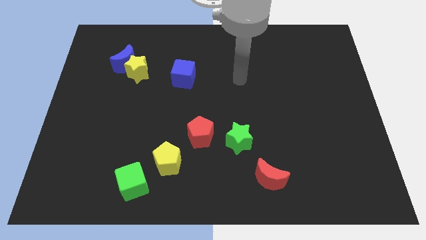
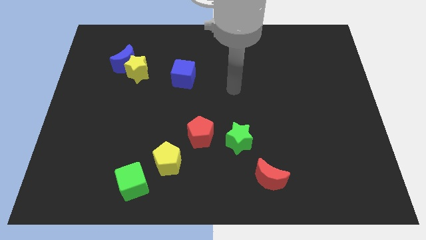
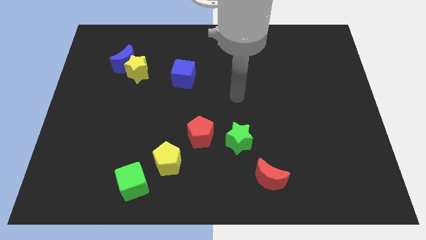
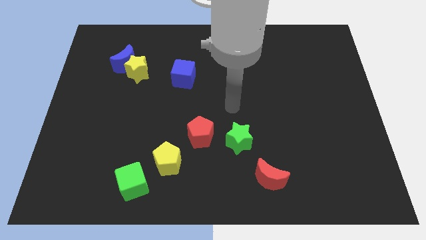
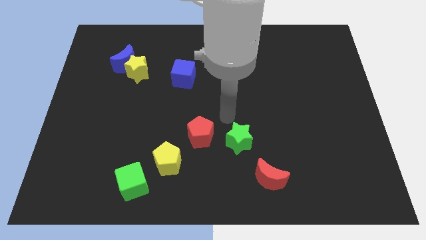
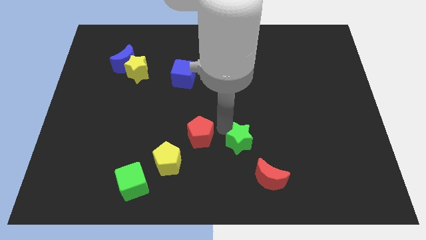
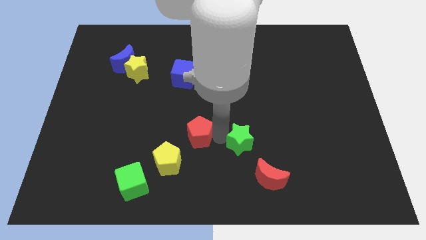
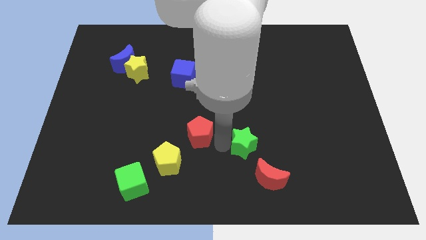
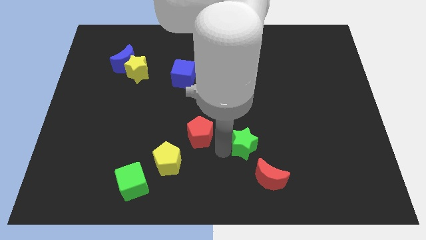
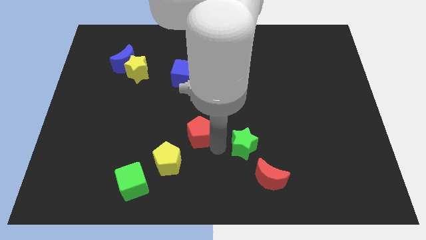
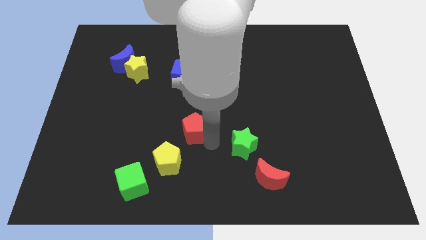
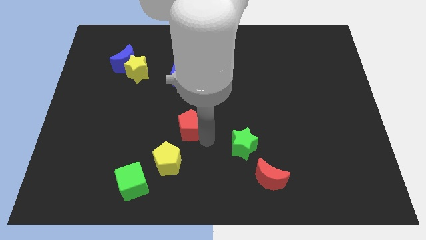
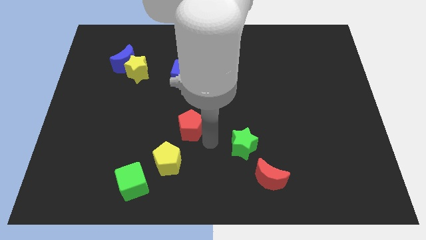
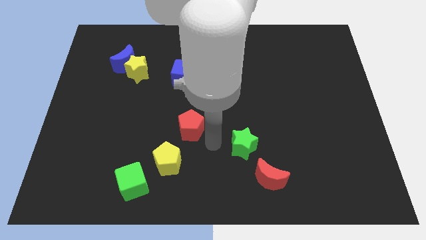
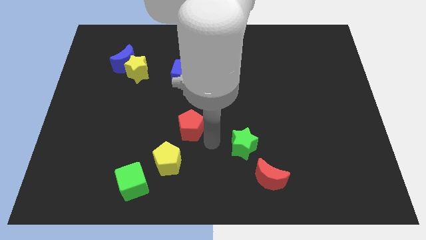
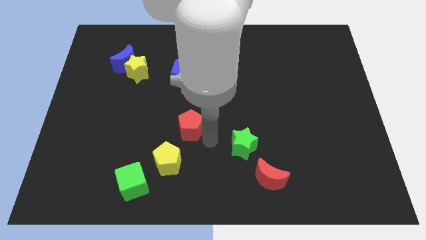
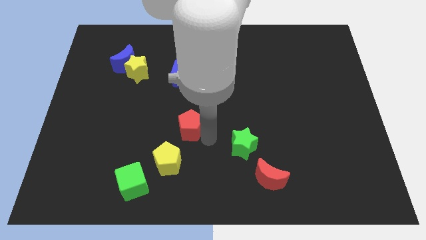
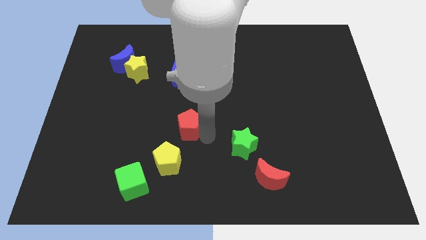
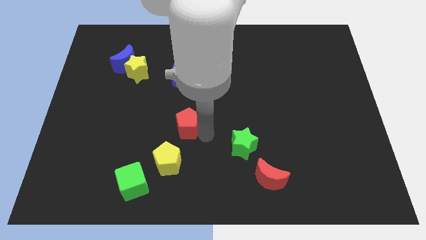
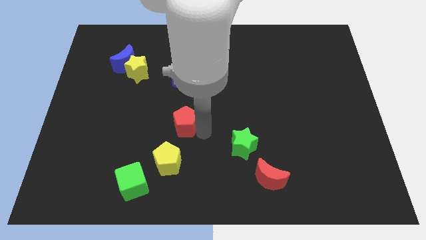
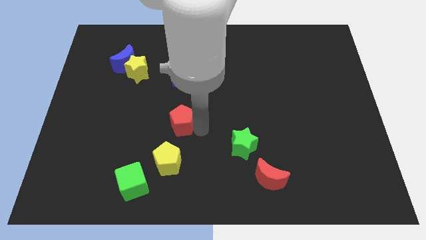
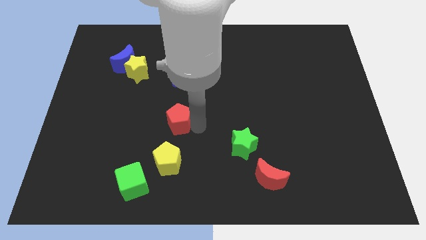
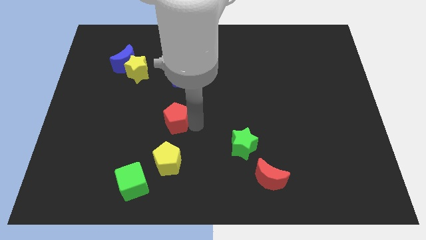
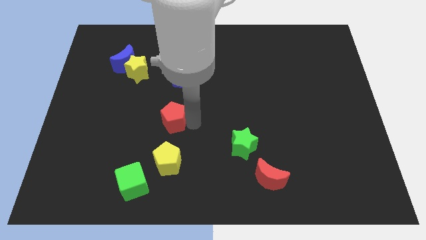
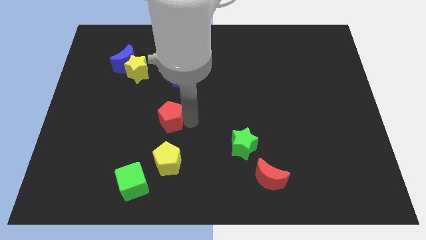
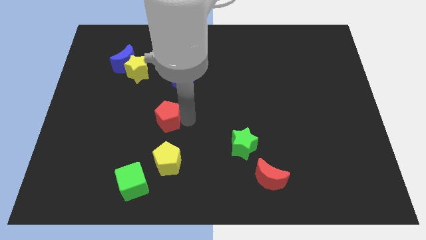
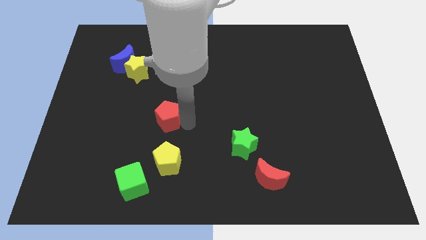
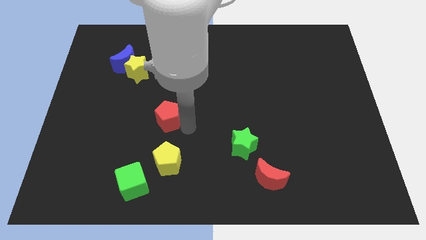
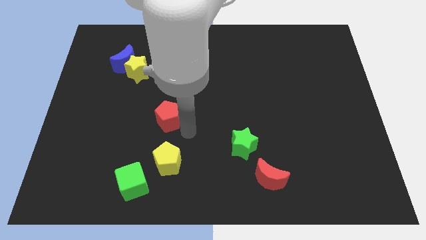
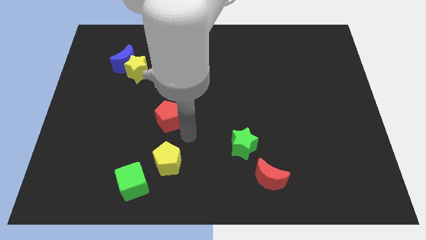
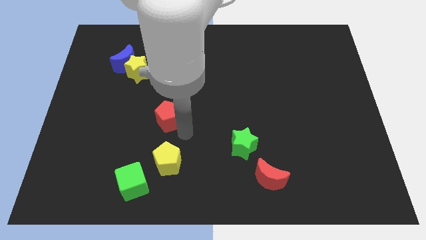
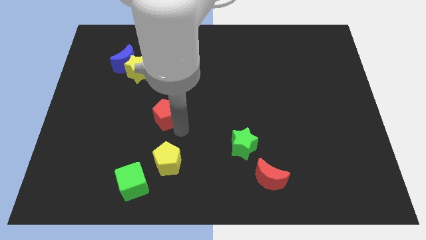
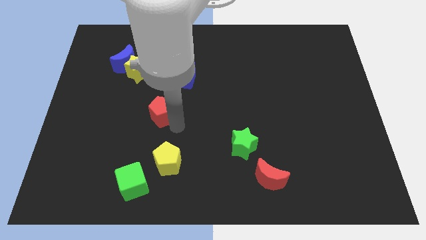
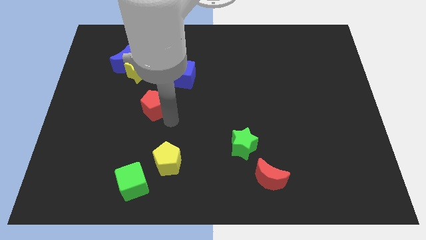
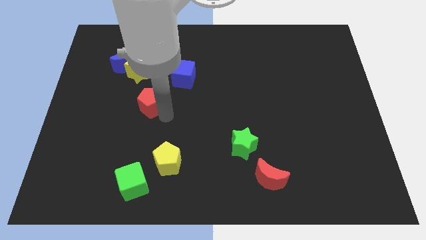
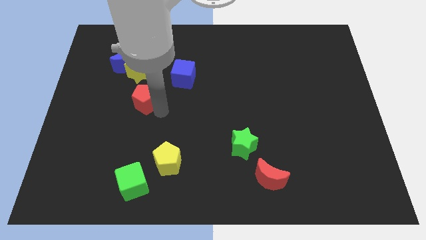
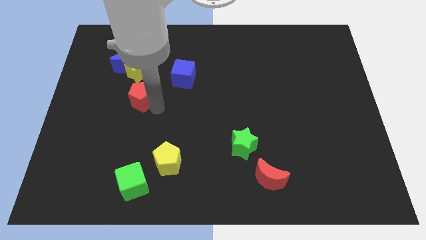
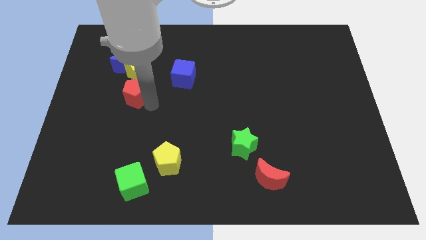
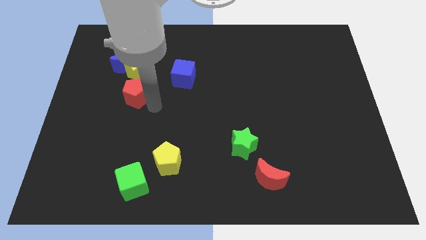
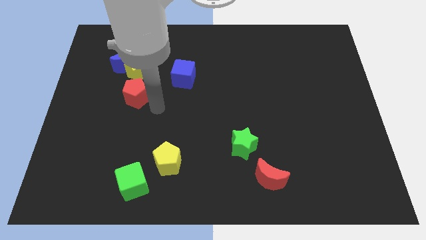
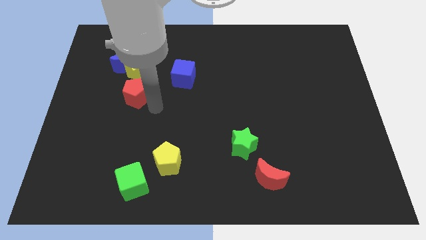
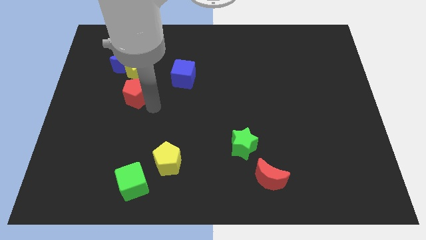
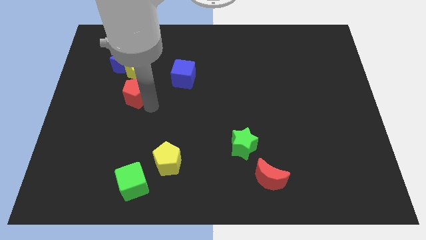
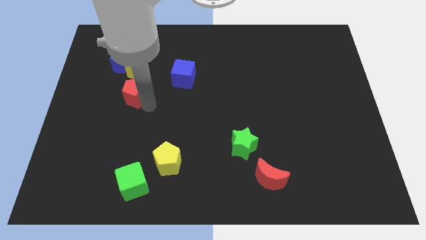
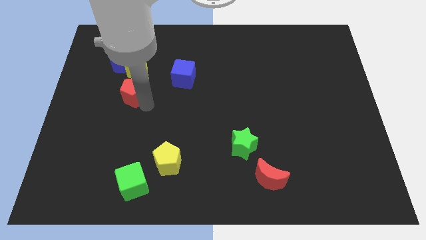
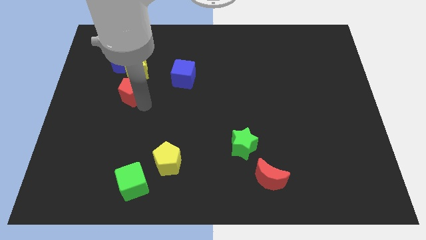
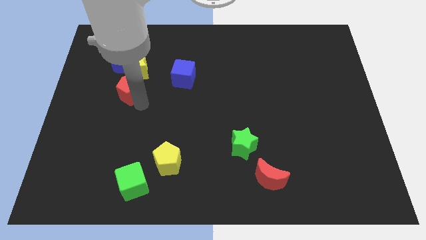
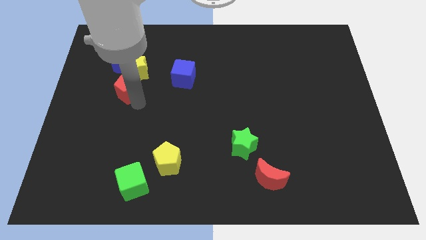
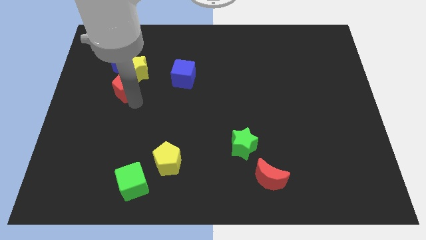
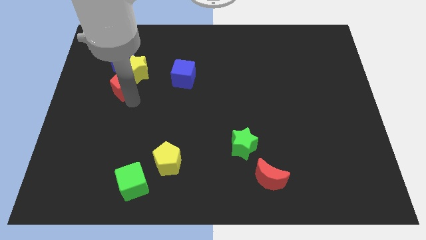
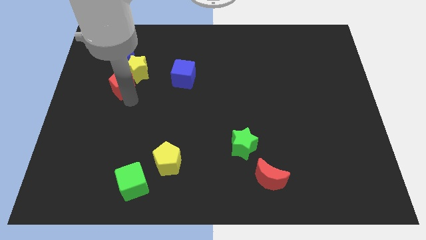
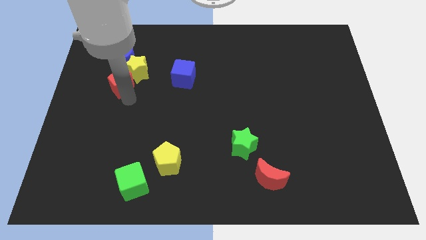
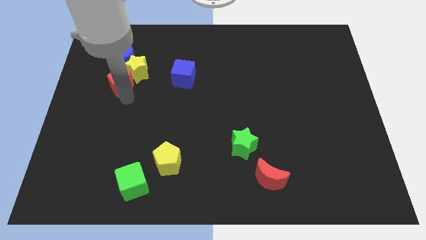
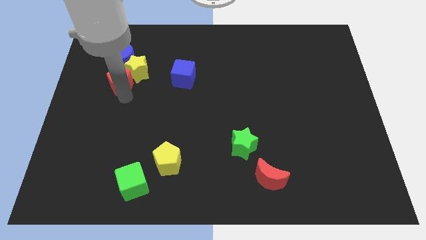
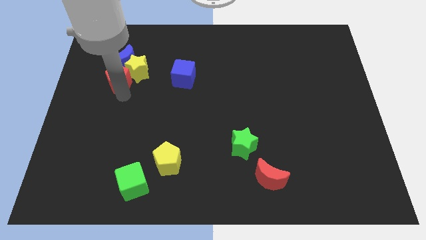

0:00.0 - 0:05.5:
put the red pentagon to the blue moon

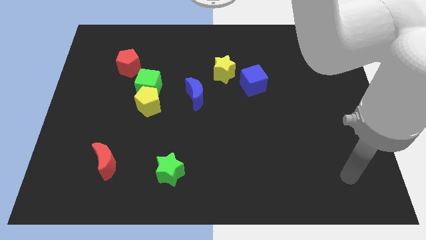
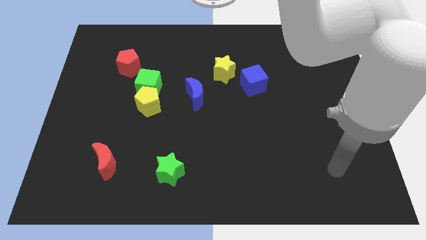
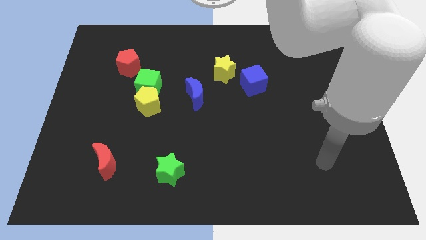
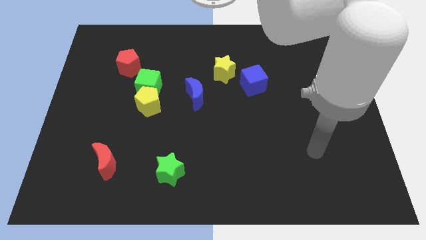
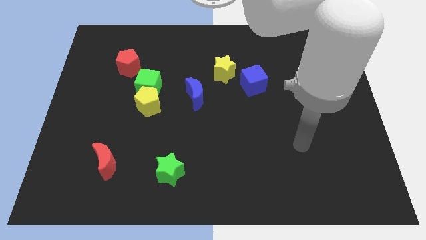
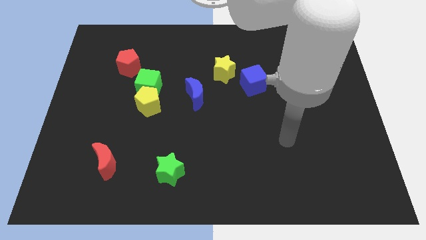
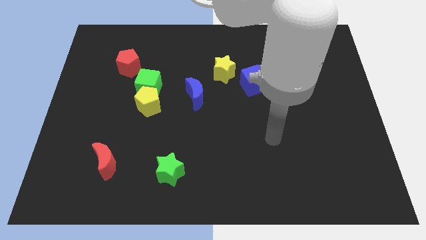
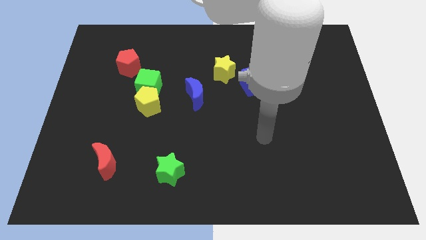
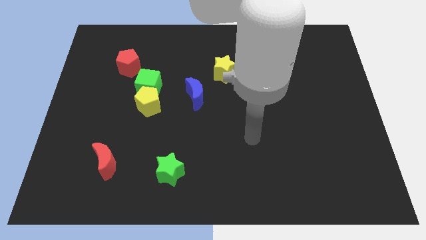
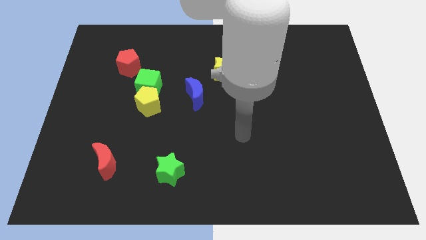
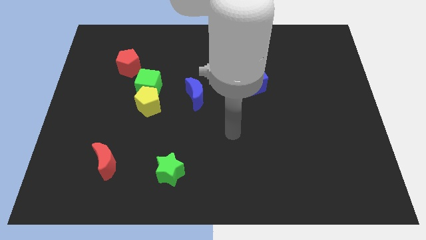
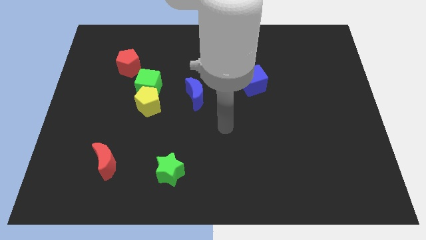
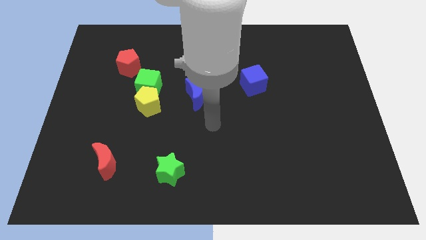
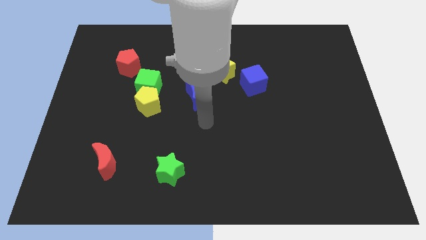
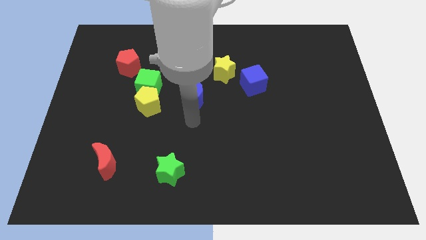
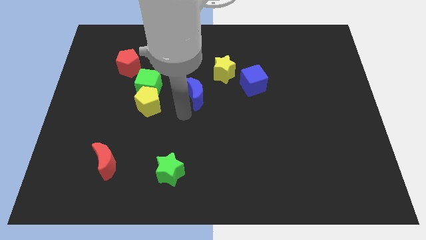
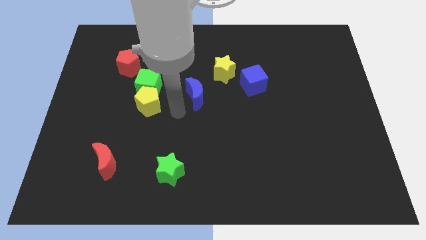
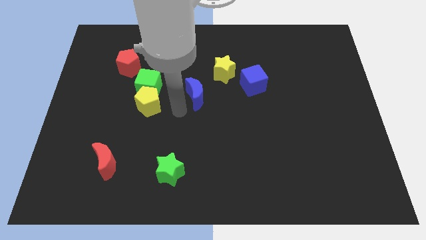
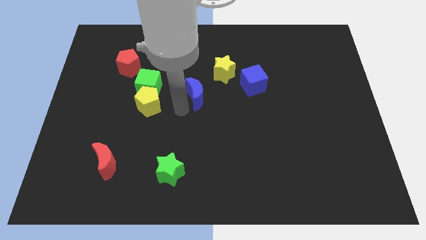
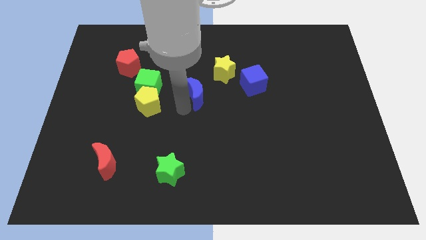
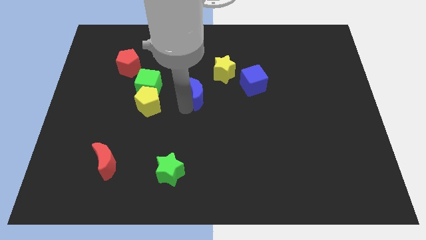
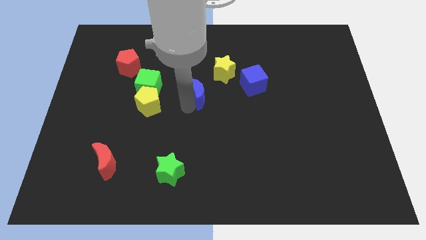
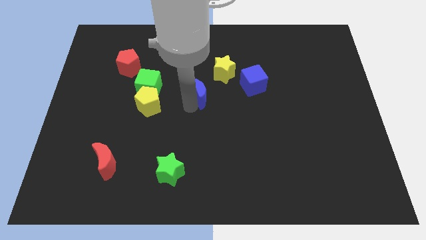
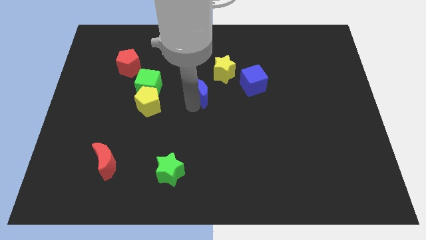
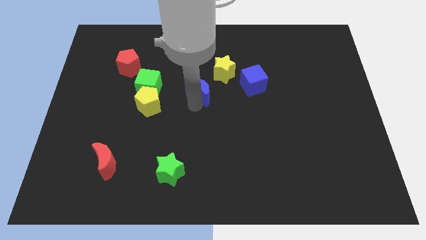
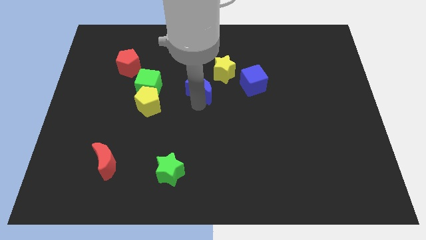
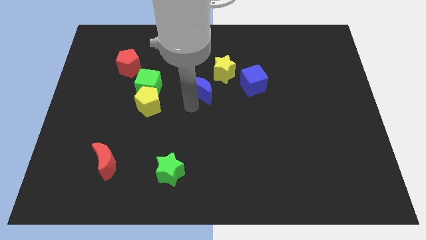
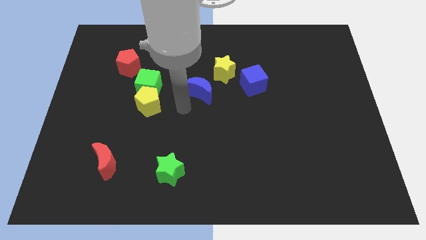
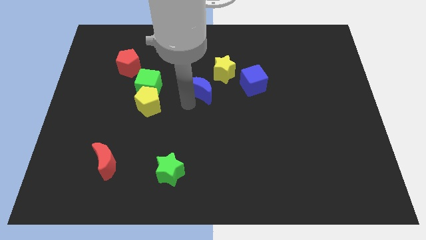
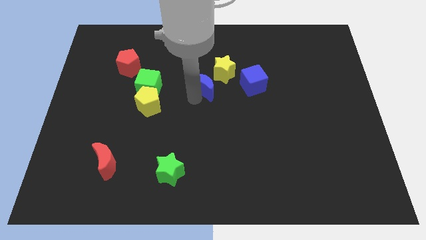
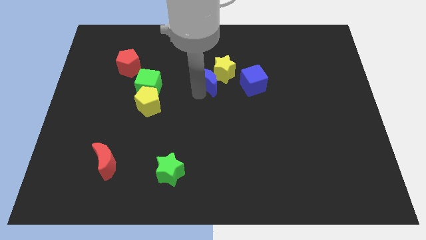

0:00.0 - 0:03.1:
push the blue moon to the yellow star
